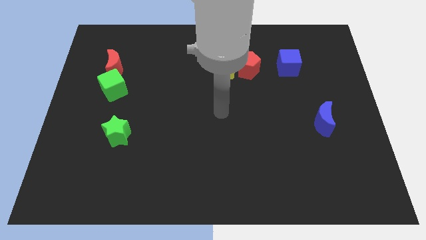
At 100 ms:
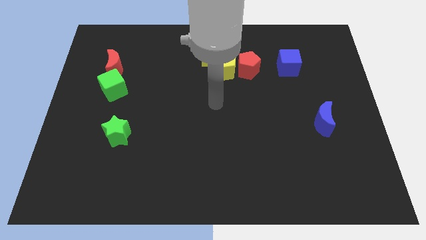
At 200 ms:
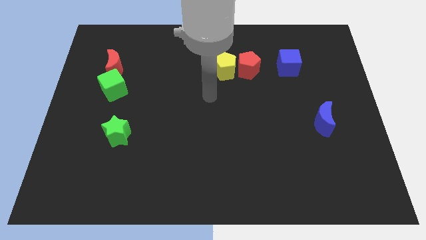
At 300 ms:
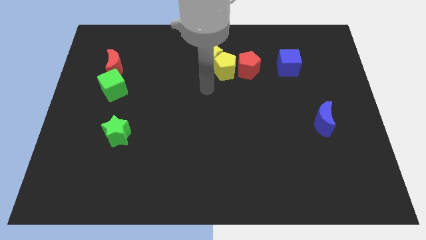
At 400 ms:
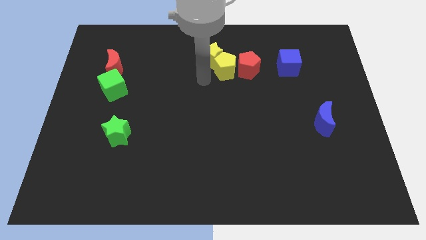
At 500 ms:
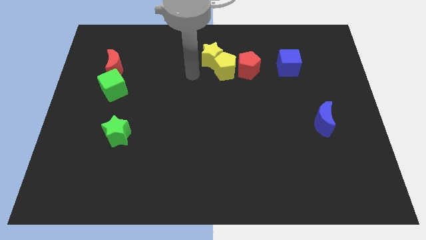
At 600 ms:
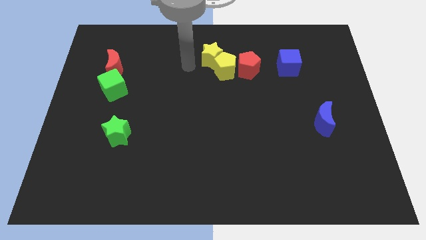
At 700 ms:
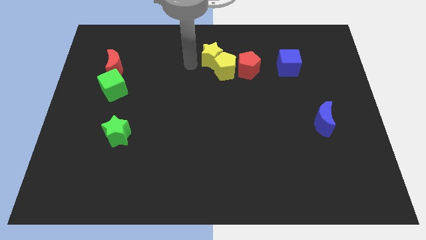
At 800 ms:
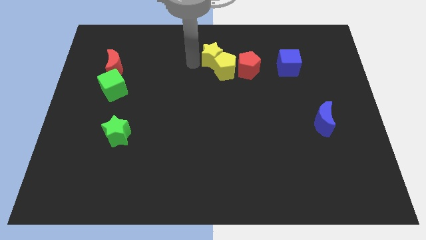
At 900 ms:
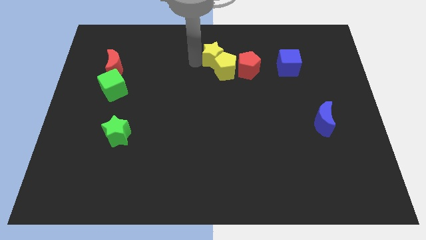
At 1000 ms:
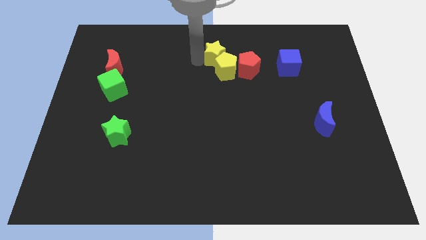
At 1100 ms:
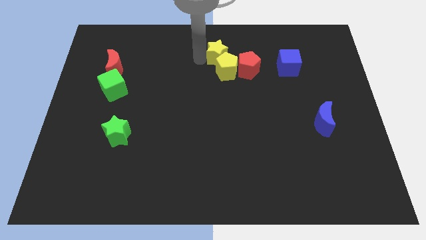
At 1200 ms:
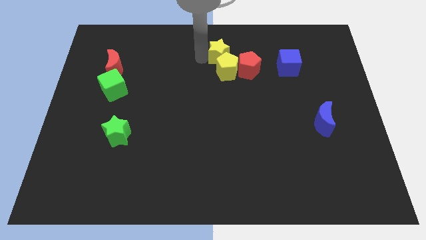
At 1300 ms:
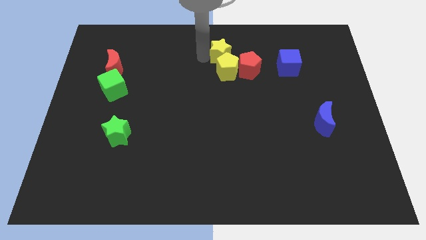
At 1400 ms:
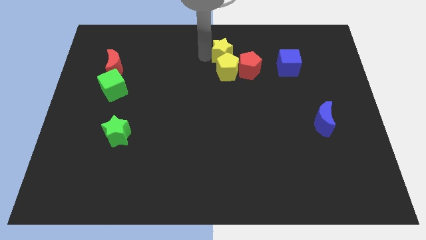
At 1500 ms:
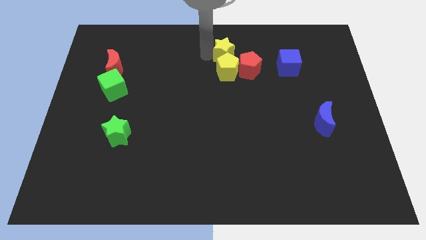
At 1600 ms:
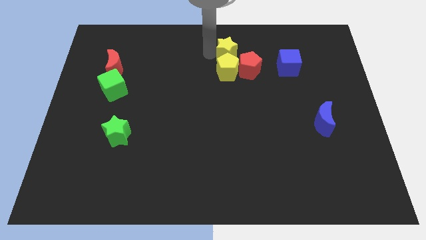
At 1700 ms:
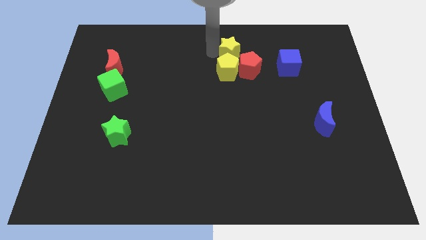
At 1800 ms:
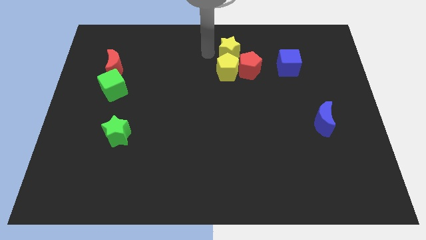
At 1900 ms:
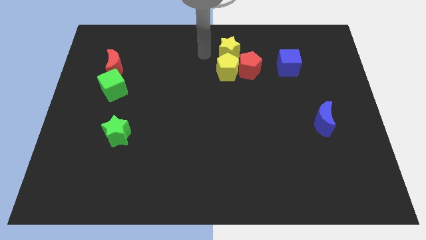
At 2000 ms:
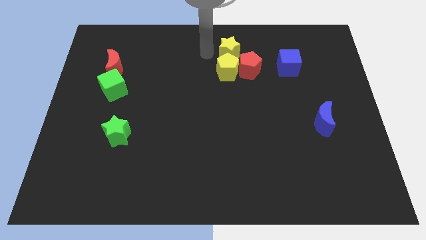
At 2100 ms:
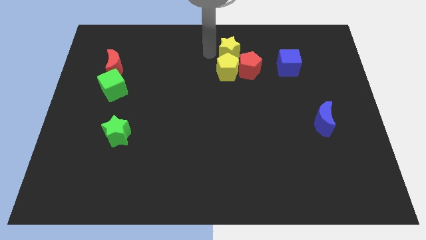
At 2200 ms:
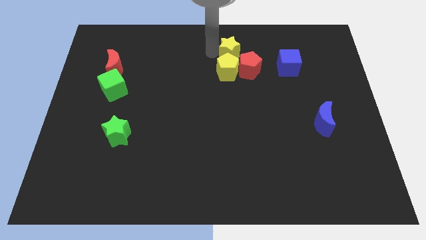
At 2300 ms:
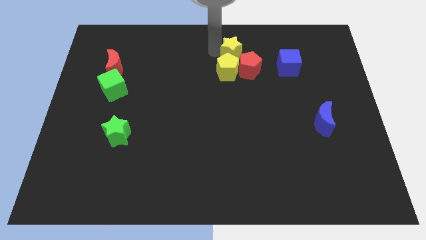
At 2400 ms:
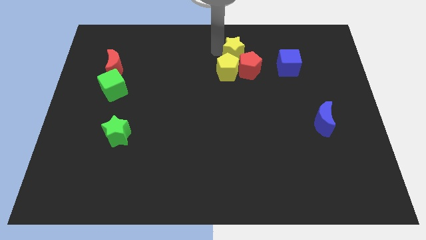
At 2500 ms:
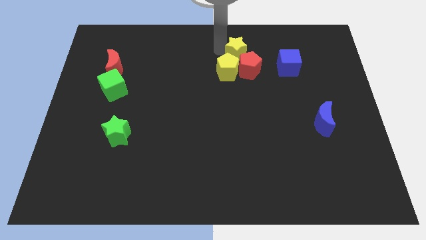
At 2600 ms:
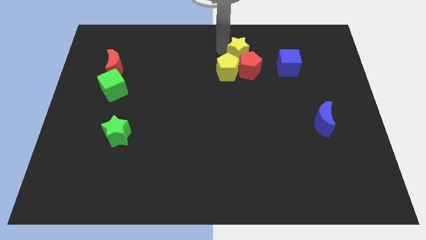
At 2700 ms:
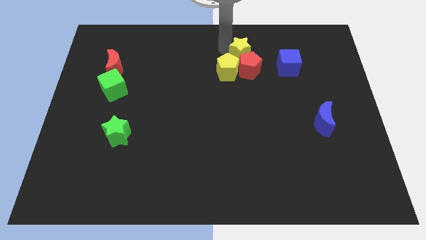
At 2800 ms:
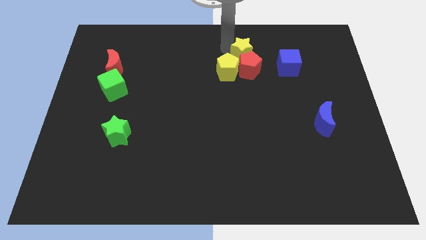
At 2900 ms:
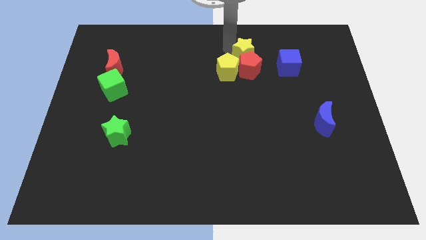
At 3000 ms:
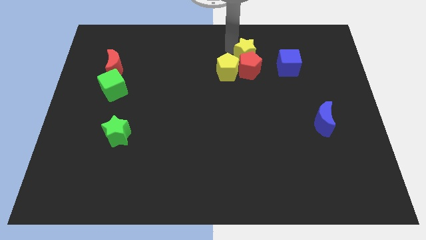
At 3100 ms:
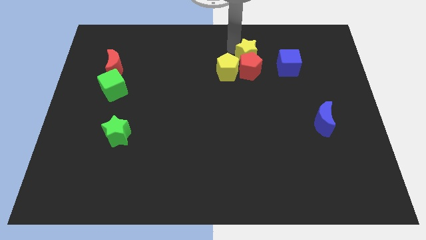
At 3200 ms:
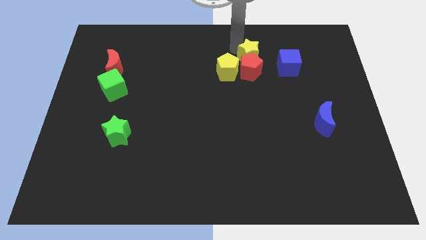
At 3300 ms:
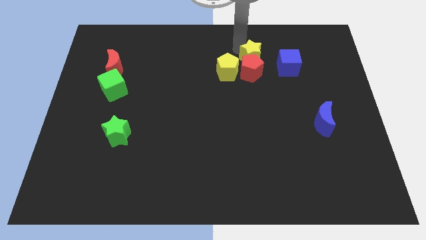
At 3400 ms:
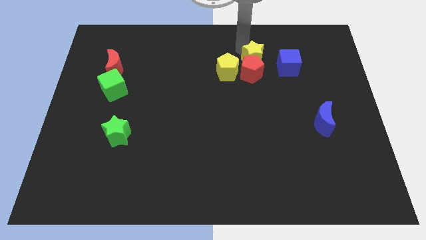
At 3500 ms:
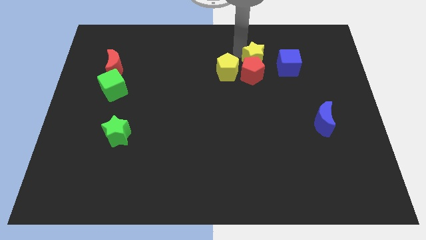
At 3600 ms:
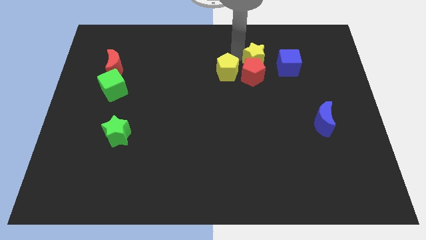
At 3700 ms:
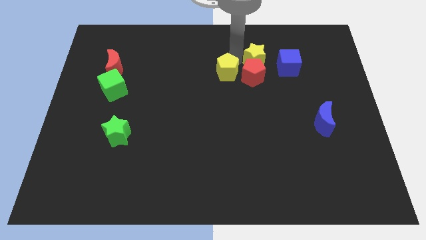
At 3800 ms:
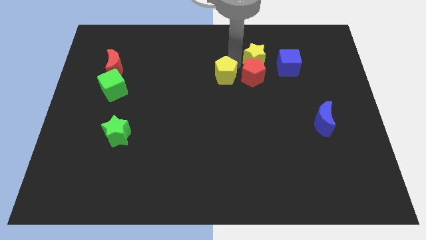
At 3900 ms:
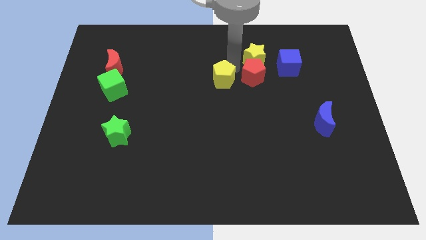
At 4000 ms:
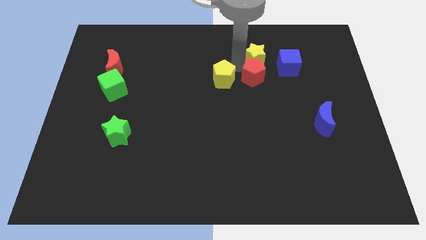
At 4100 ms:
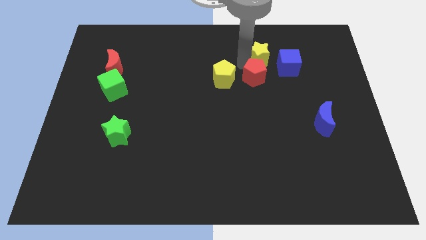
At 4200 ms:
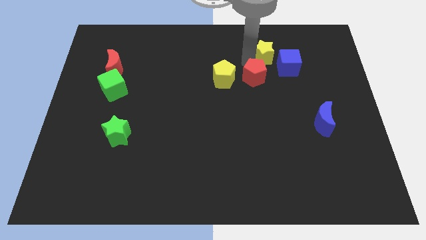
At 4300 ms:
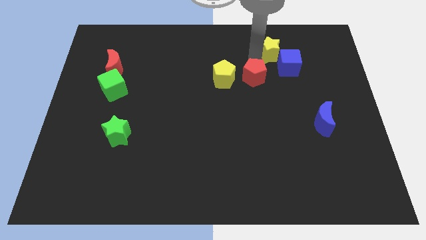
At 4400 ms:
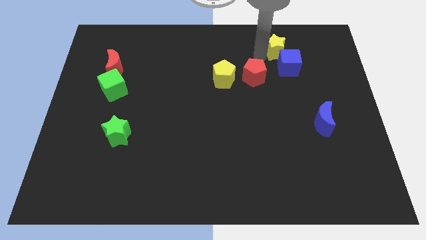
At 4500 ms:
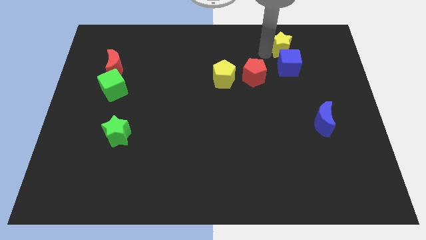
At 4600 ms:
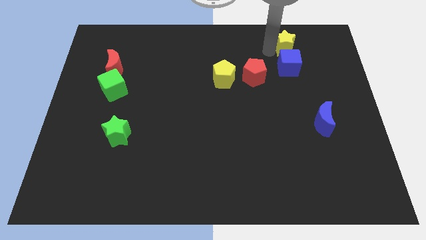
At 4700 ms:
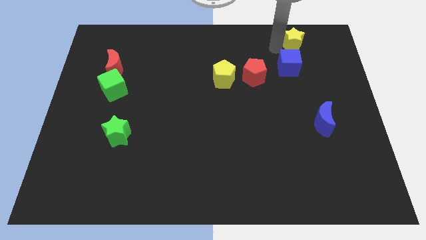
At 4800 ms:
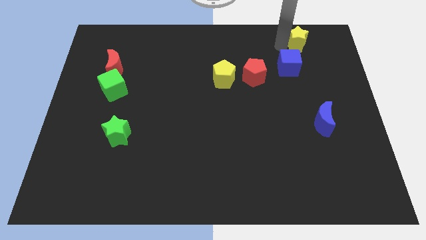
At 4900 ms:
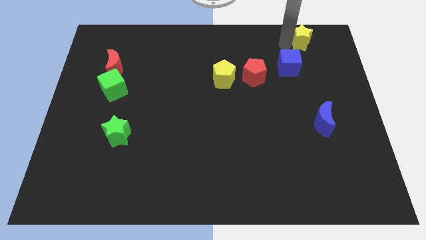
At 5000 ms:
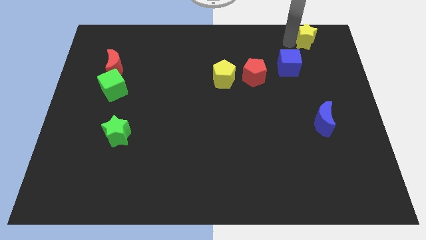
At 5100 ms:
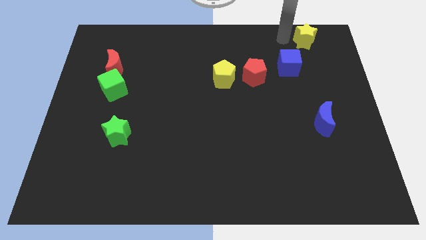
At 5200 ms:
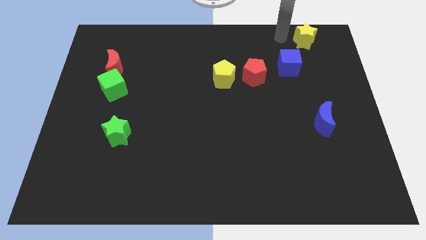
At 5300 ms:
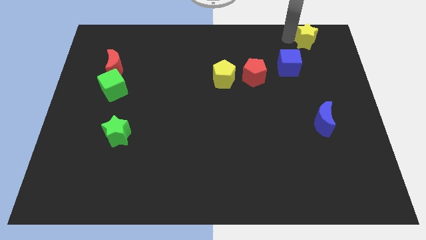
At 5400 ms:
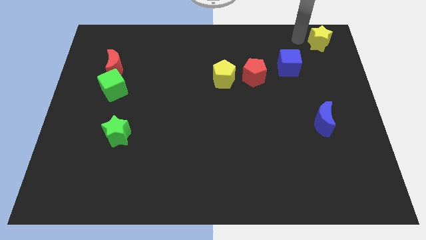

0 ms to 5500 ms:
slide the yellow star to the top right
